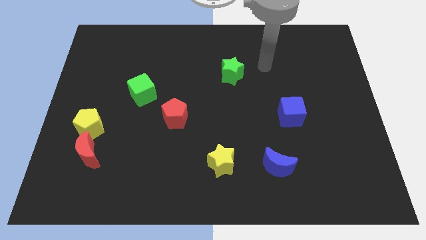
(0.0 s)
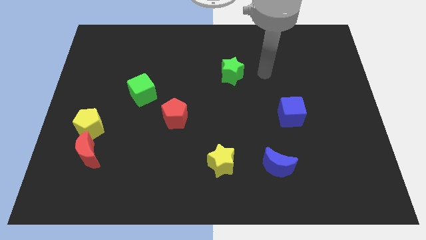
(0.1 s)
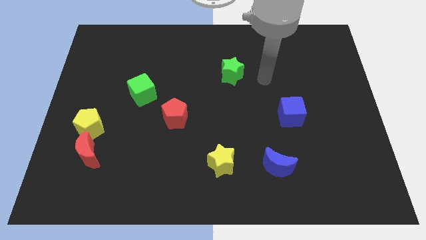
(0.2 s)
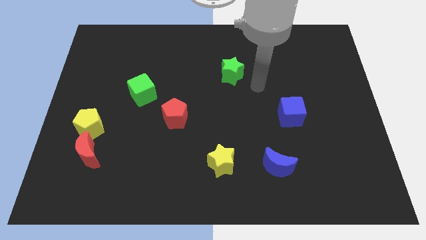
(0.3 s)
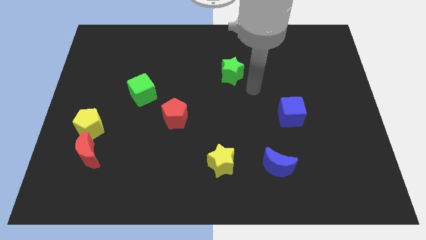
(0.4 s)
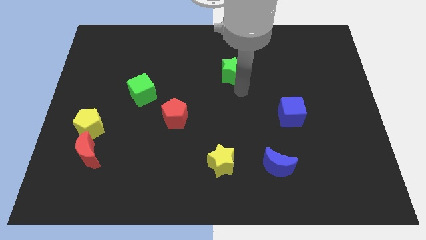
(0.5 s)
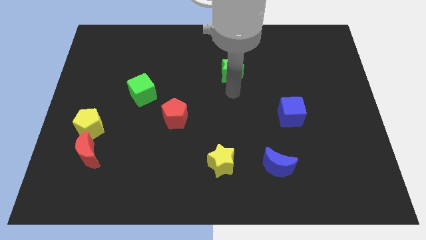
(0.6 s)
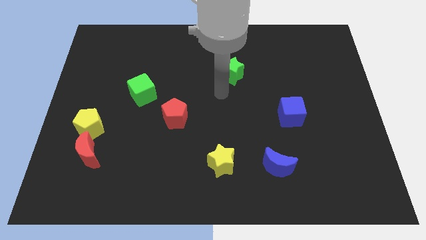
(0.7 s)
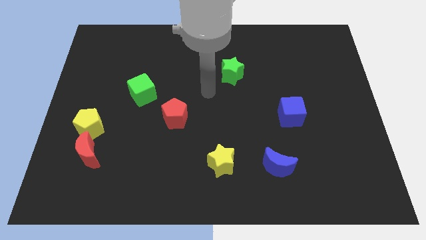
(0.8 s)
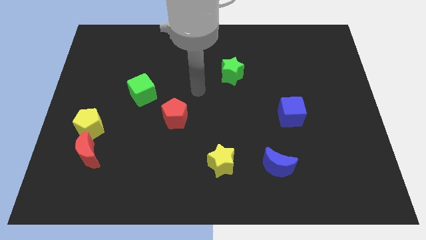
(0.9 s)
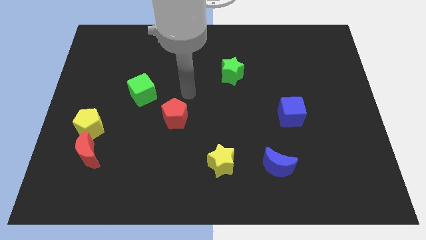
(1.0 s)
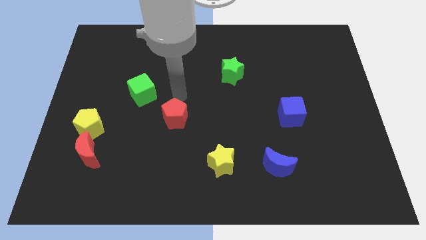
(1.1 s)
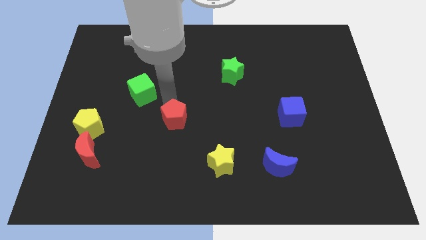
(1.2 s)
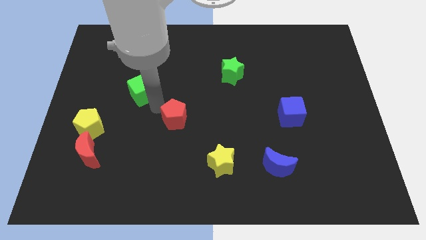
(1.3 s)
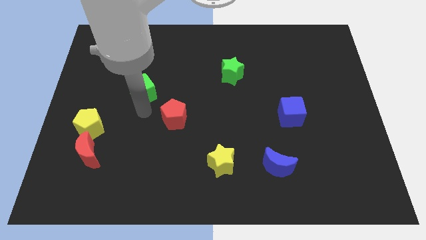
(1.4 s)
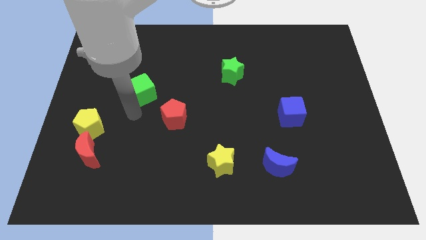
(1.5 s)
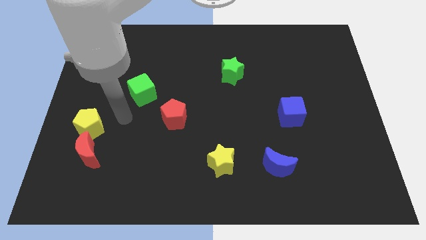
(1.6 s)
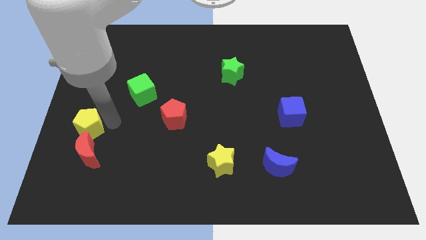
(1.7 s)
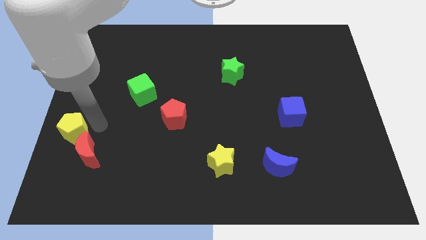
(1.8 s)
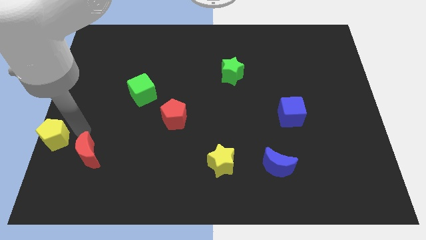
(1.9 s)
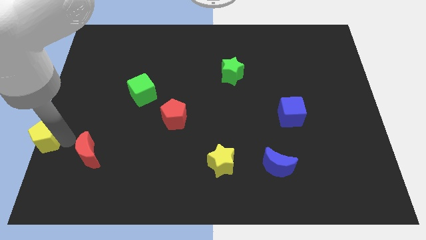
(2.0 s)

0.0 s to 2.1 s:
separate the red moon from the yellow pentagon

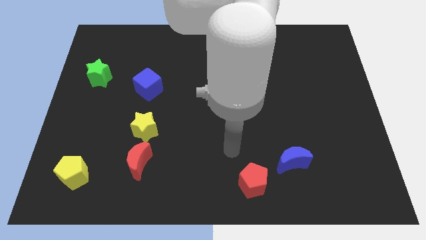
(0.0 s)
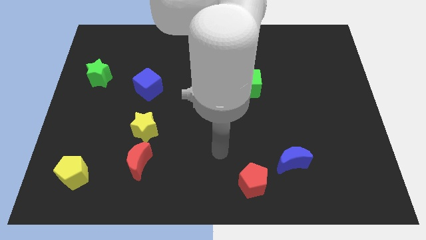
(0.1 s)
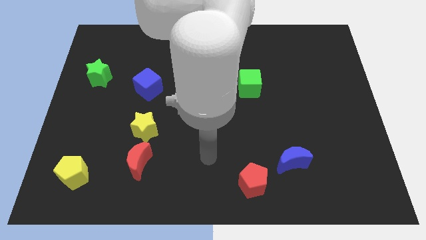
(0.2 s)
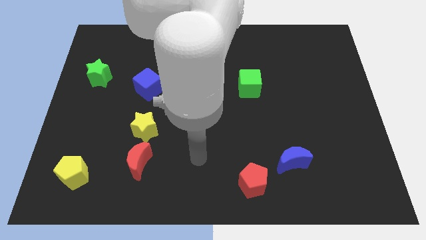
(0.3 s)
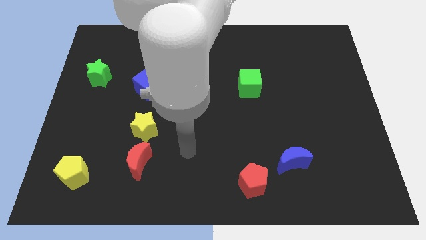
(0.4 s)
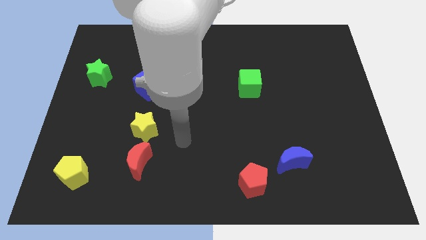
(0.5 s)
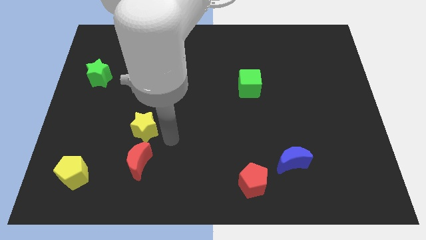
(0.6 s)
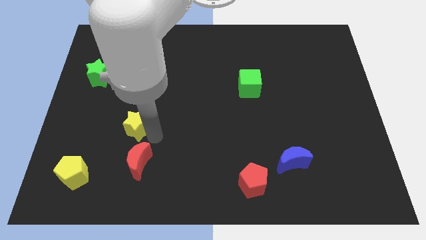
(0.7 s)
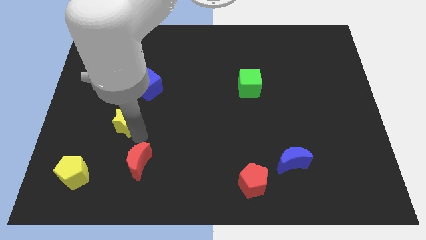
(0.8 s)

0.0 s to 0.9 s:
separate the red moon from the yellow star

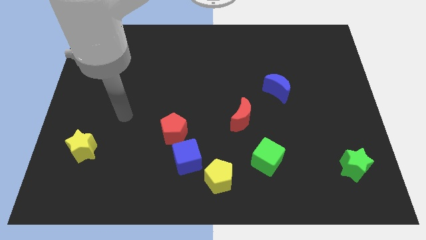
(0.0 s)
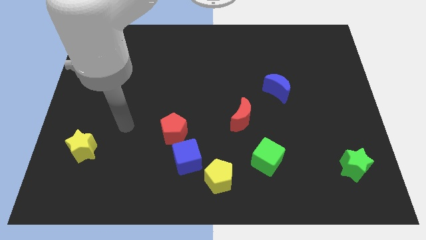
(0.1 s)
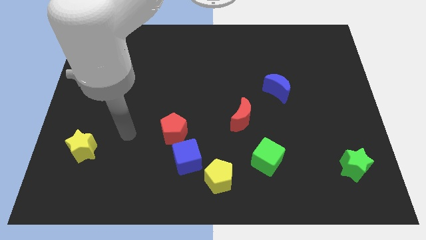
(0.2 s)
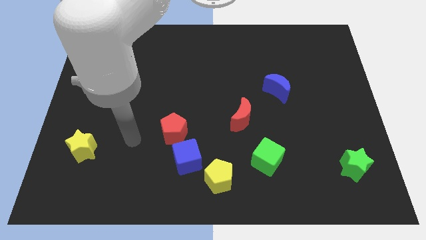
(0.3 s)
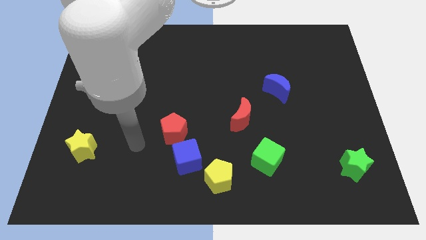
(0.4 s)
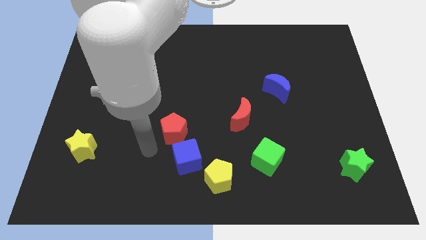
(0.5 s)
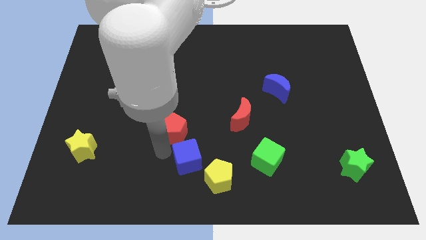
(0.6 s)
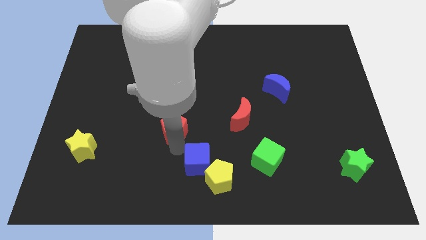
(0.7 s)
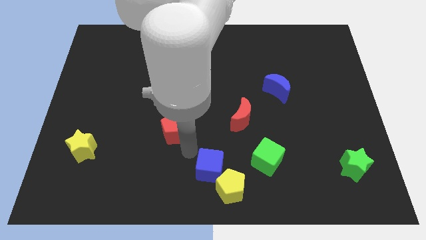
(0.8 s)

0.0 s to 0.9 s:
move the red pentagon away from the blue cube

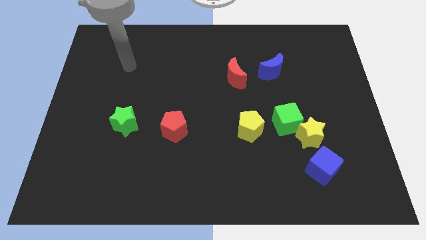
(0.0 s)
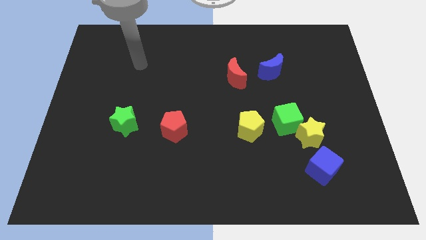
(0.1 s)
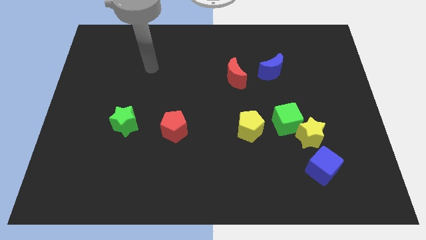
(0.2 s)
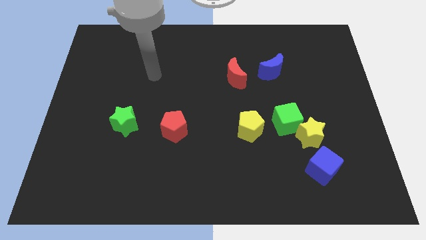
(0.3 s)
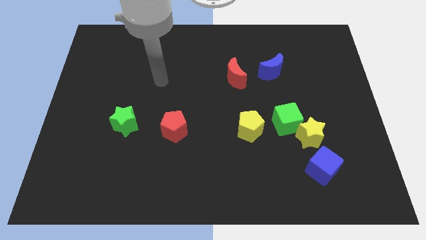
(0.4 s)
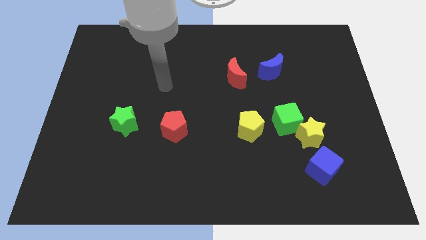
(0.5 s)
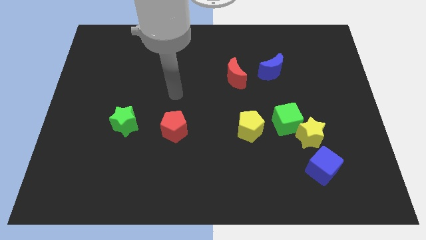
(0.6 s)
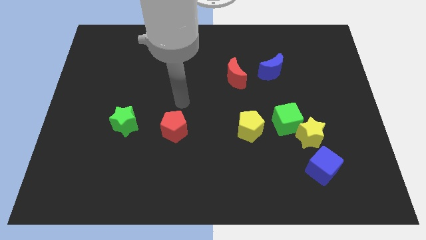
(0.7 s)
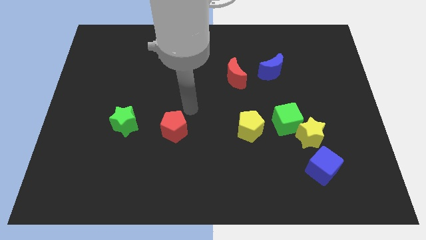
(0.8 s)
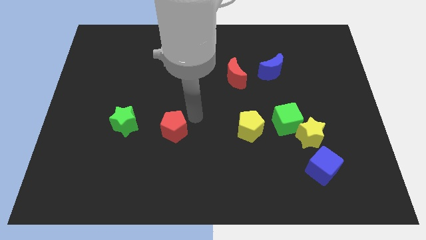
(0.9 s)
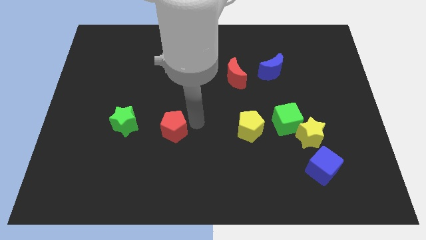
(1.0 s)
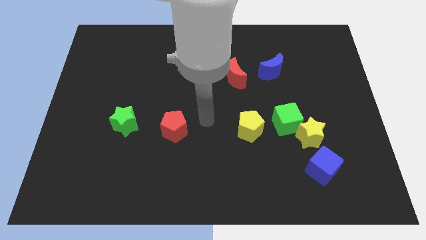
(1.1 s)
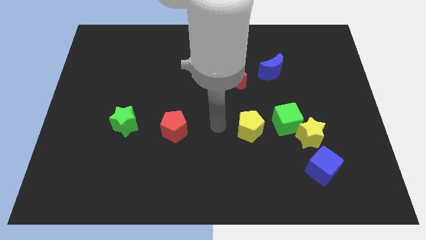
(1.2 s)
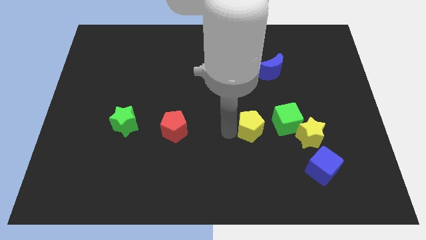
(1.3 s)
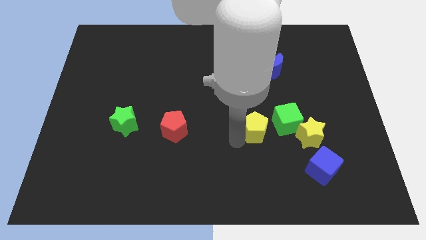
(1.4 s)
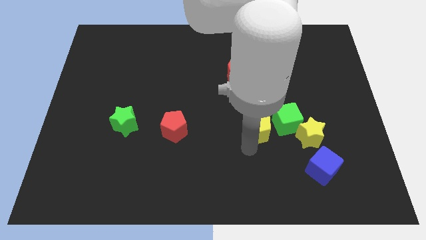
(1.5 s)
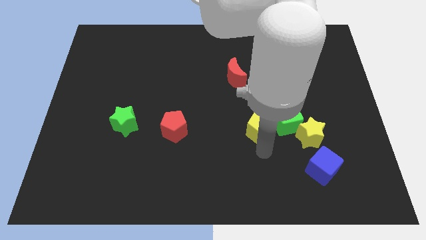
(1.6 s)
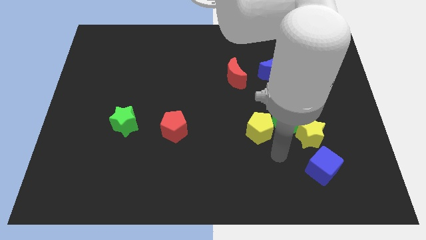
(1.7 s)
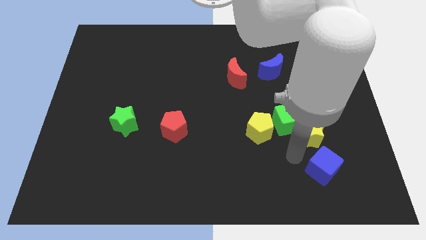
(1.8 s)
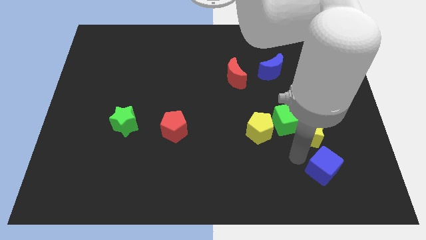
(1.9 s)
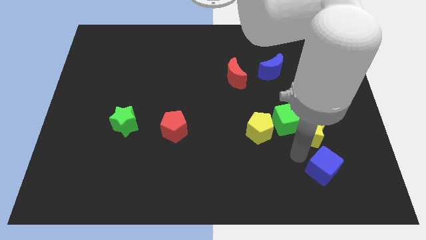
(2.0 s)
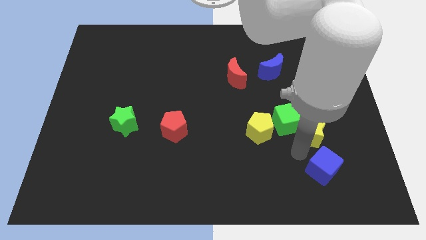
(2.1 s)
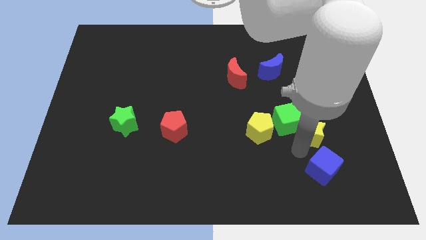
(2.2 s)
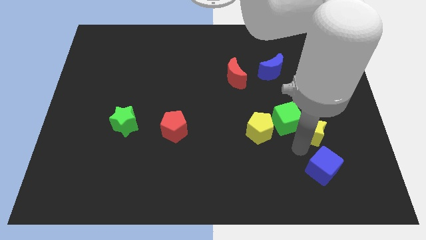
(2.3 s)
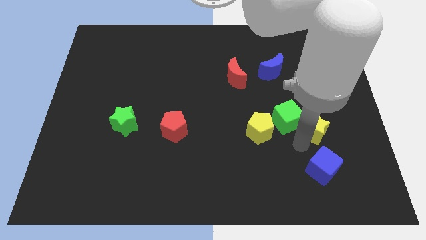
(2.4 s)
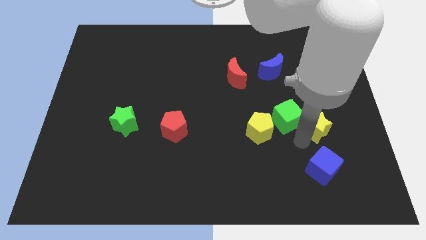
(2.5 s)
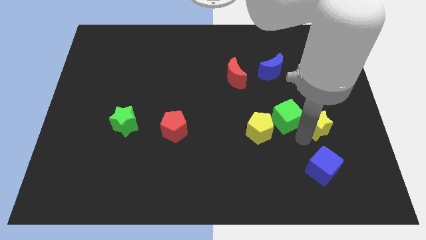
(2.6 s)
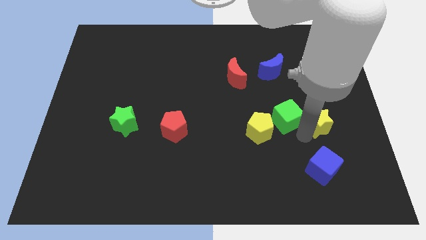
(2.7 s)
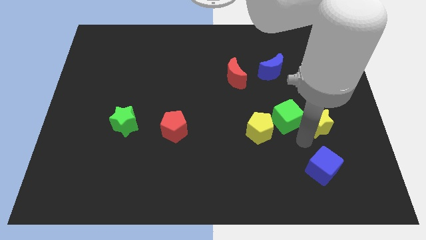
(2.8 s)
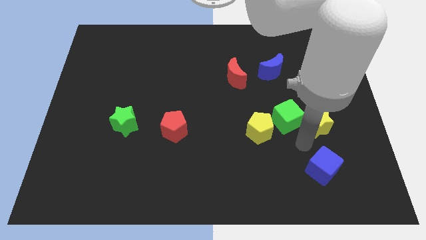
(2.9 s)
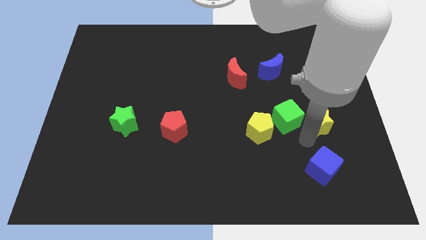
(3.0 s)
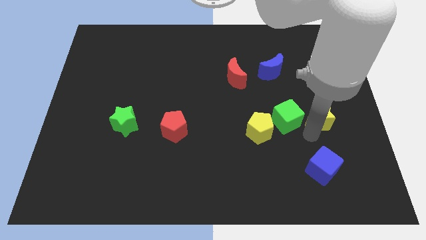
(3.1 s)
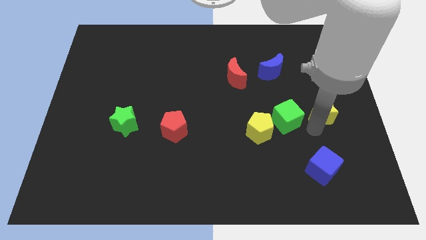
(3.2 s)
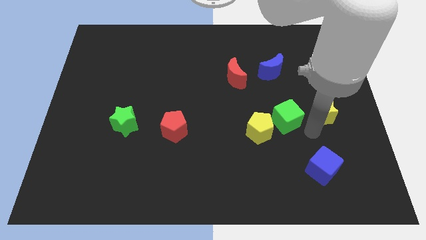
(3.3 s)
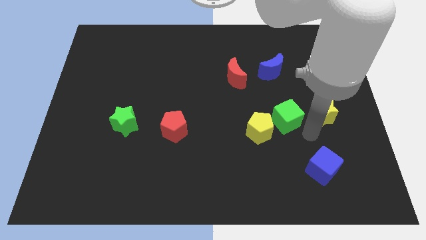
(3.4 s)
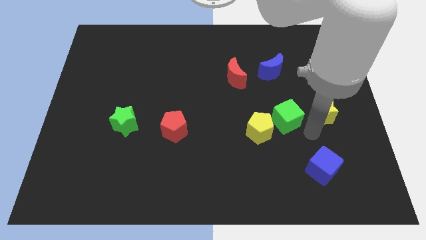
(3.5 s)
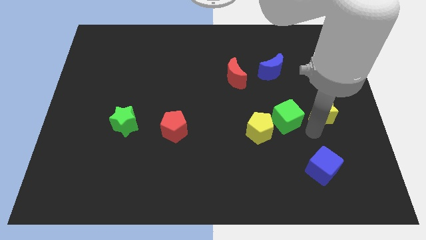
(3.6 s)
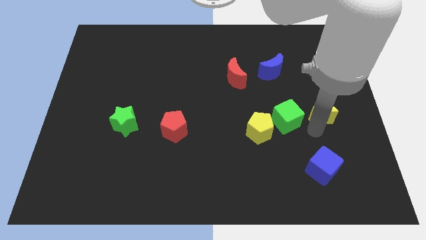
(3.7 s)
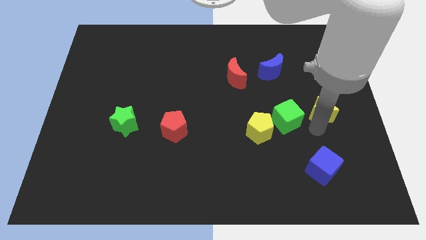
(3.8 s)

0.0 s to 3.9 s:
pull the yellow star apart from the green cube and blue cube

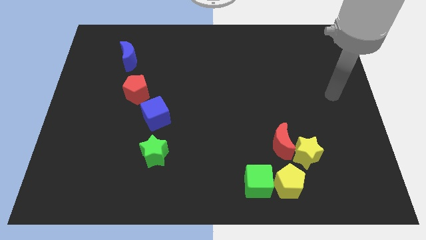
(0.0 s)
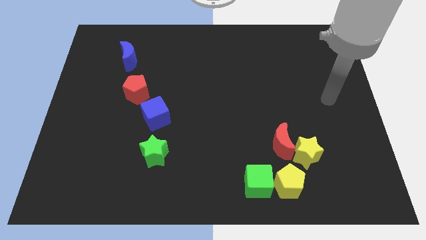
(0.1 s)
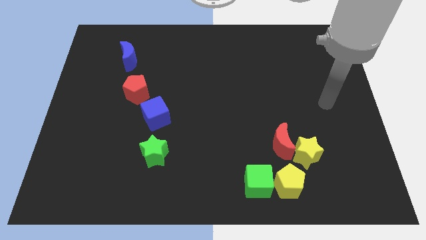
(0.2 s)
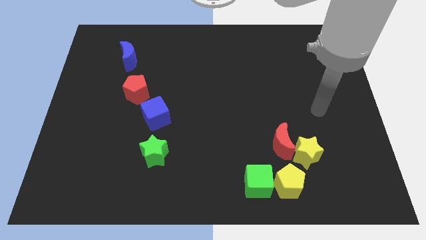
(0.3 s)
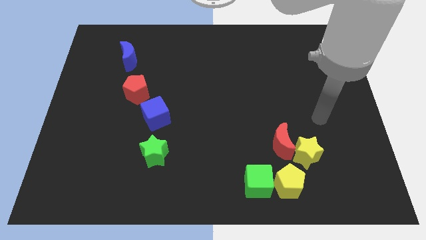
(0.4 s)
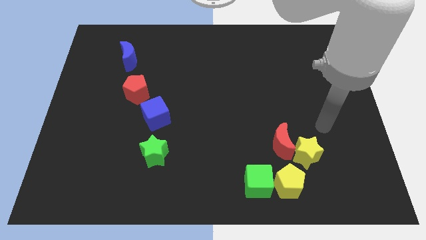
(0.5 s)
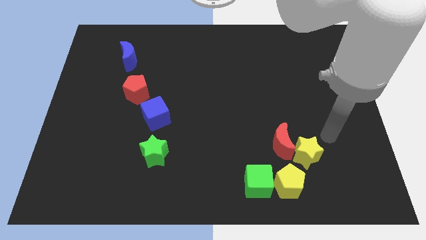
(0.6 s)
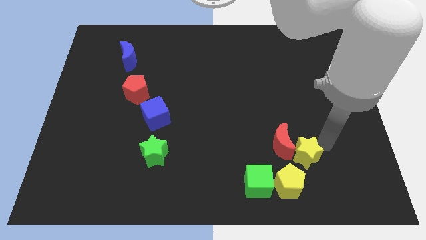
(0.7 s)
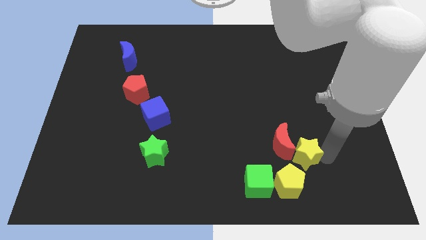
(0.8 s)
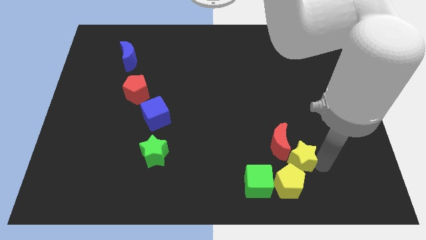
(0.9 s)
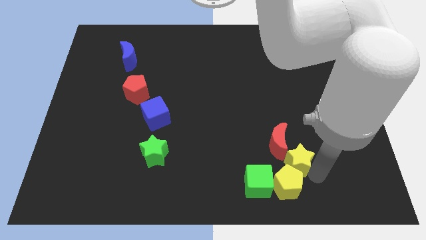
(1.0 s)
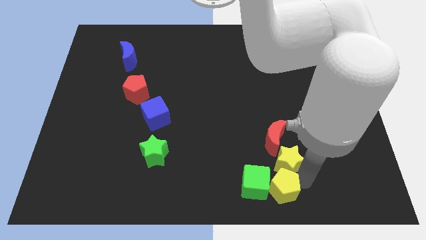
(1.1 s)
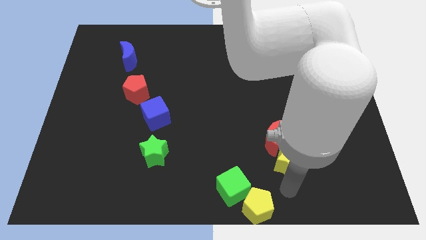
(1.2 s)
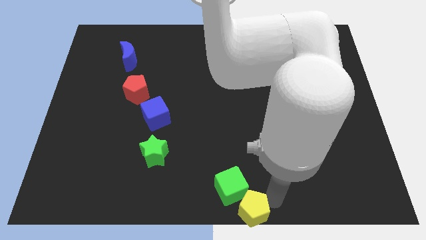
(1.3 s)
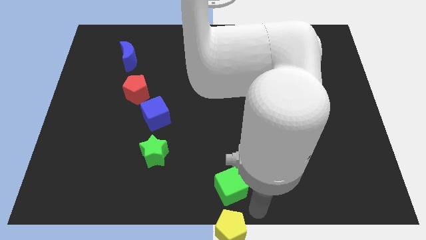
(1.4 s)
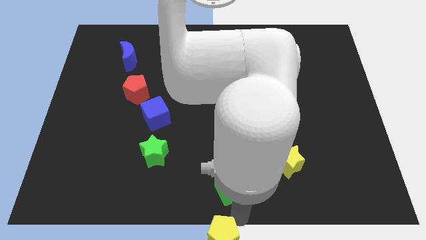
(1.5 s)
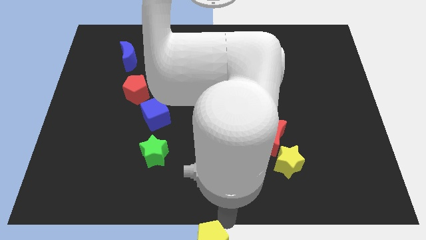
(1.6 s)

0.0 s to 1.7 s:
move the green cube away from the yellow pentagon
